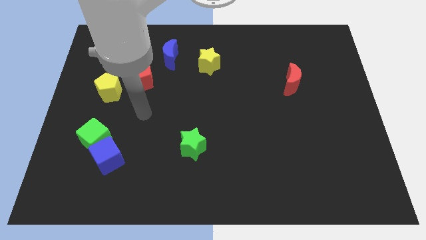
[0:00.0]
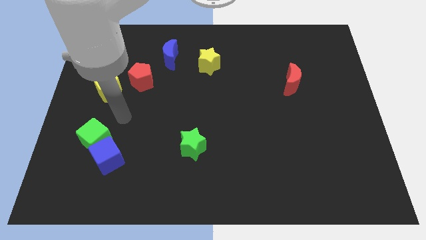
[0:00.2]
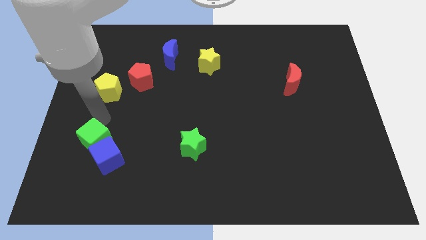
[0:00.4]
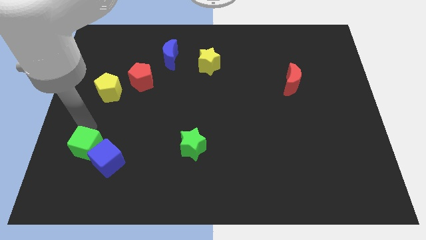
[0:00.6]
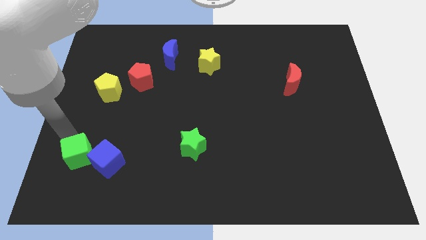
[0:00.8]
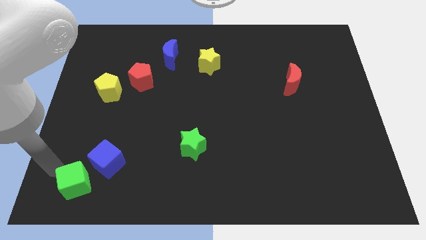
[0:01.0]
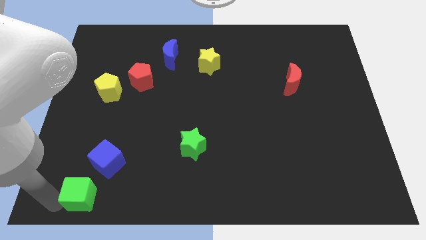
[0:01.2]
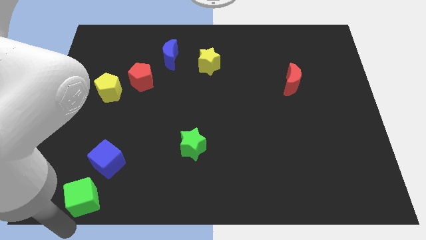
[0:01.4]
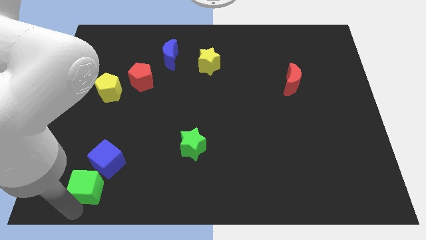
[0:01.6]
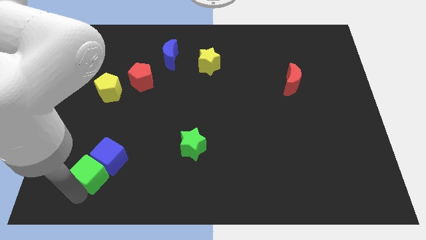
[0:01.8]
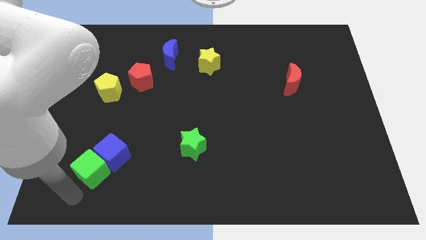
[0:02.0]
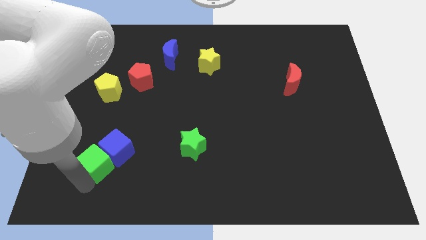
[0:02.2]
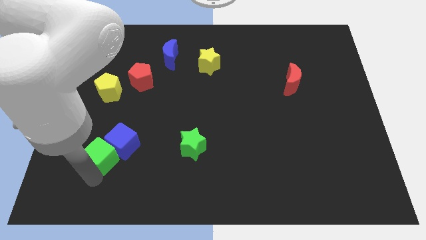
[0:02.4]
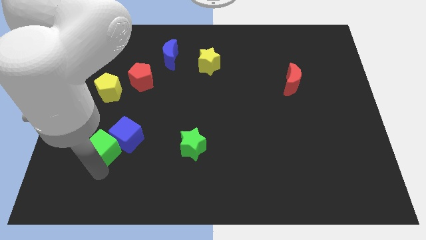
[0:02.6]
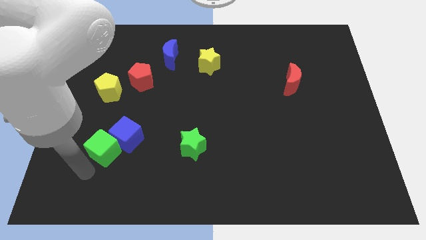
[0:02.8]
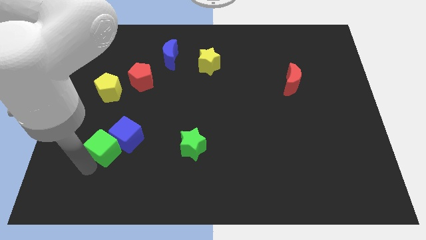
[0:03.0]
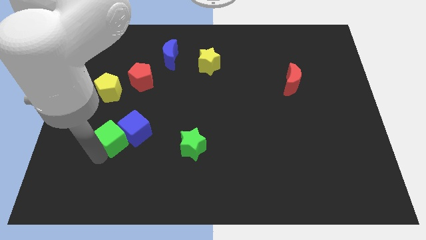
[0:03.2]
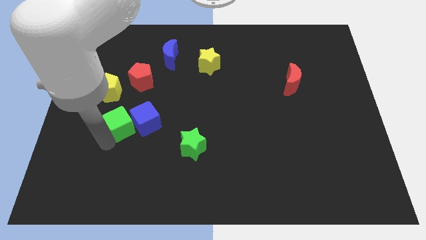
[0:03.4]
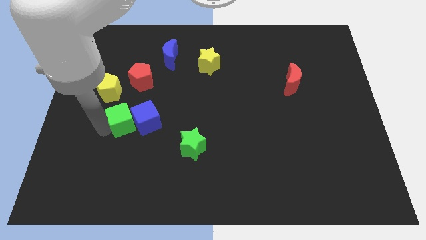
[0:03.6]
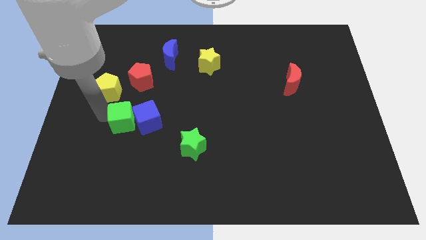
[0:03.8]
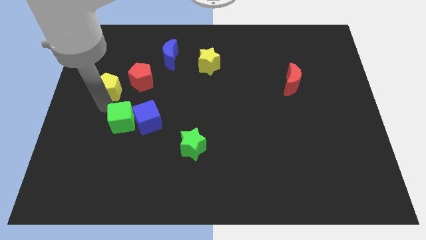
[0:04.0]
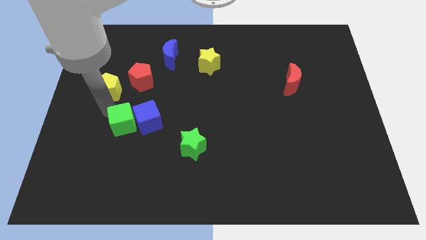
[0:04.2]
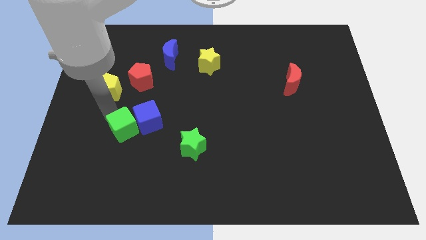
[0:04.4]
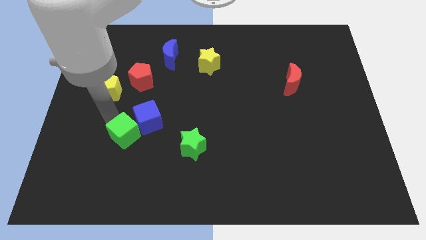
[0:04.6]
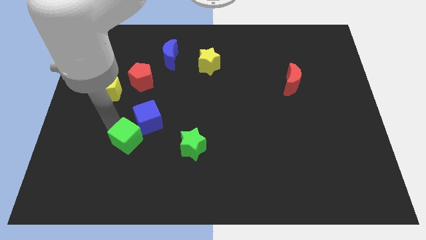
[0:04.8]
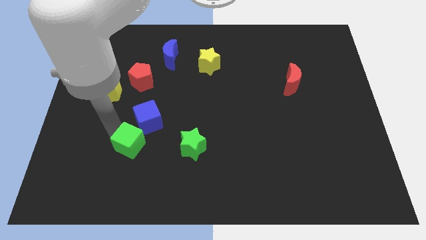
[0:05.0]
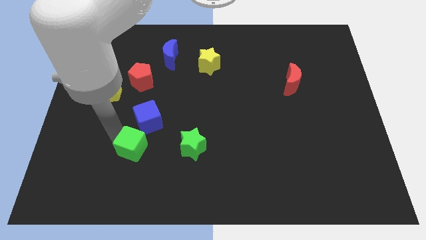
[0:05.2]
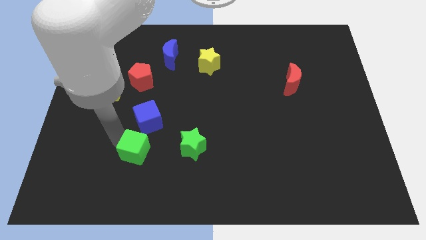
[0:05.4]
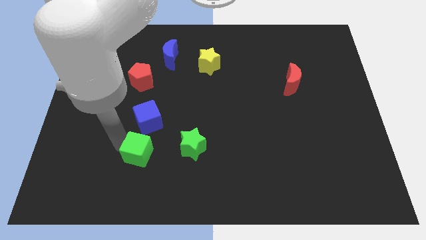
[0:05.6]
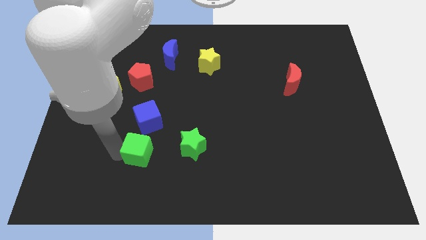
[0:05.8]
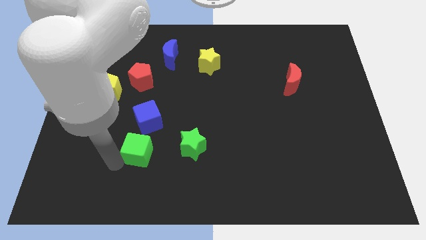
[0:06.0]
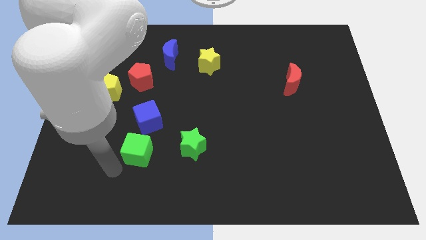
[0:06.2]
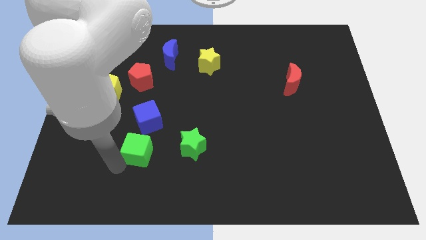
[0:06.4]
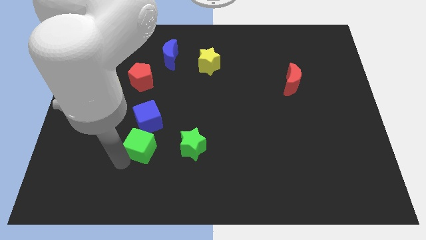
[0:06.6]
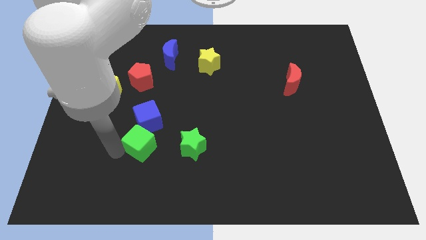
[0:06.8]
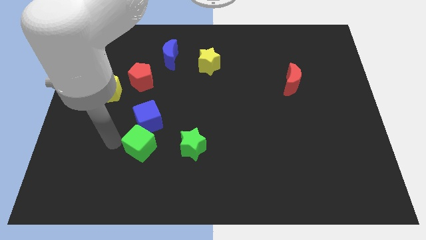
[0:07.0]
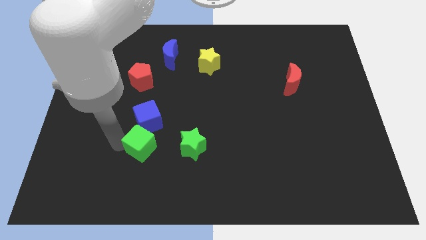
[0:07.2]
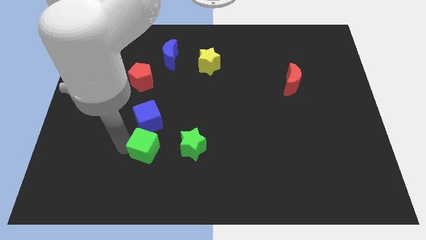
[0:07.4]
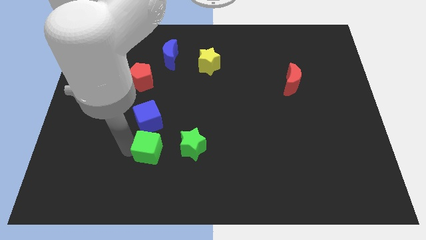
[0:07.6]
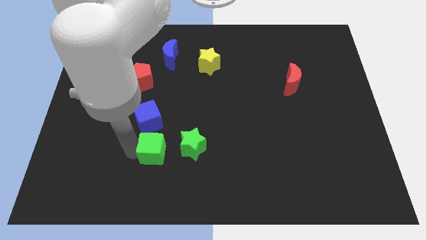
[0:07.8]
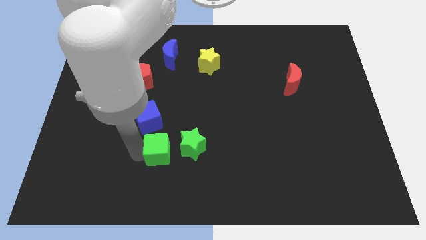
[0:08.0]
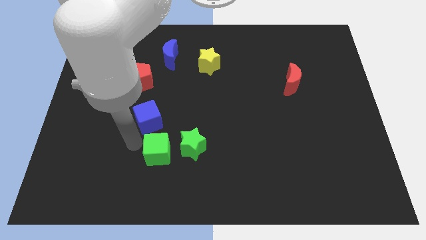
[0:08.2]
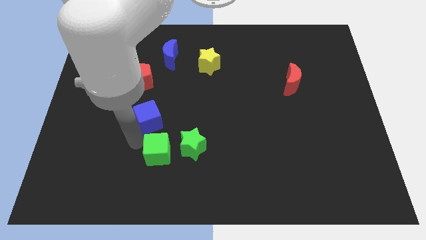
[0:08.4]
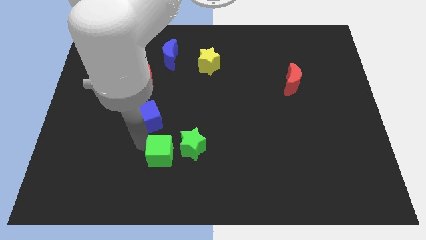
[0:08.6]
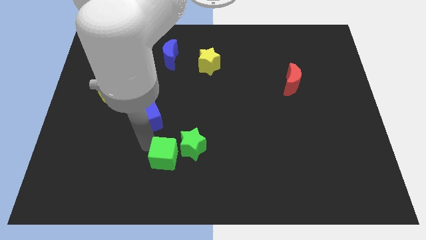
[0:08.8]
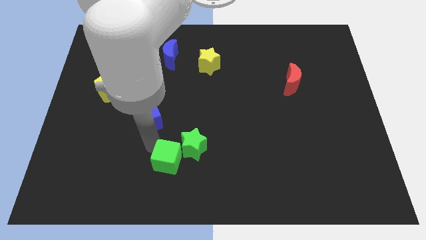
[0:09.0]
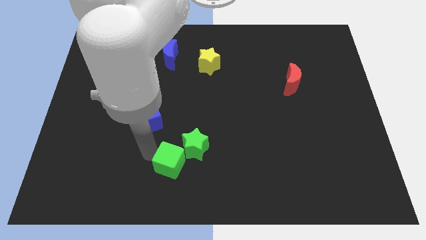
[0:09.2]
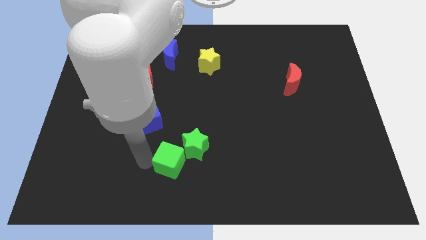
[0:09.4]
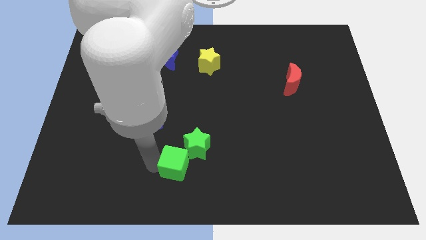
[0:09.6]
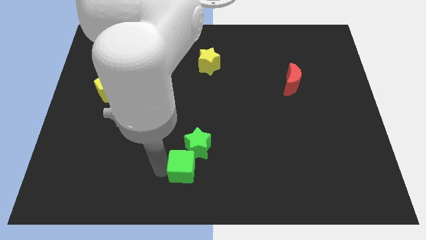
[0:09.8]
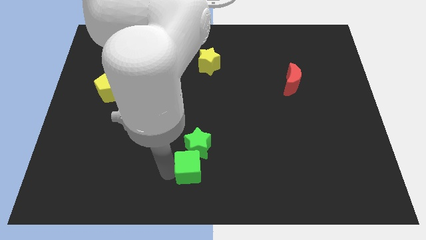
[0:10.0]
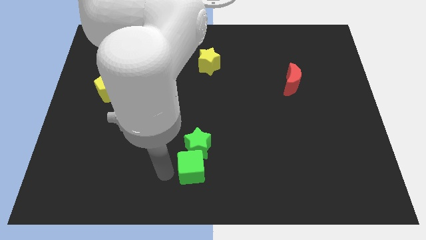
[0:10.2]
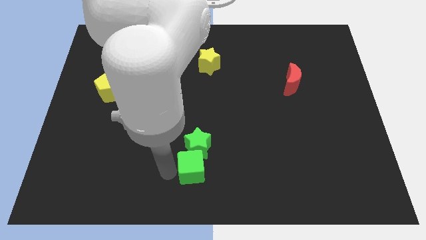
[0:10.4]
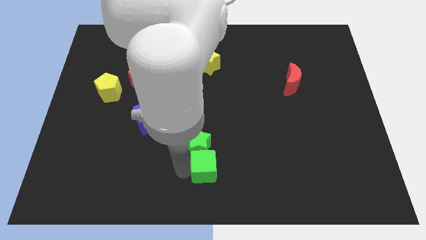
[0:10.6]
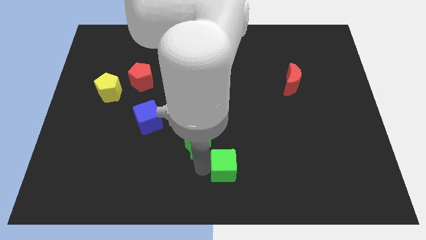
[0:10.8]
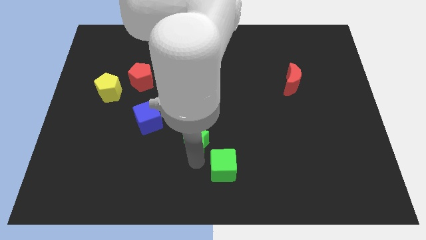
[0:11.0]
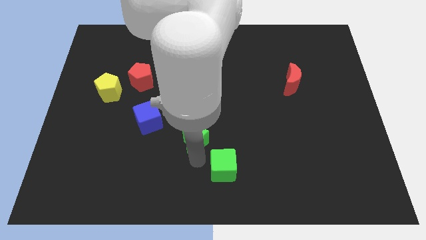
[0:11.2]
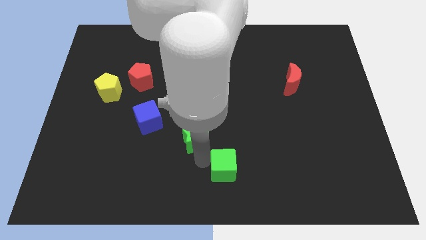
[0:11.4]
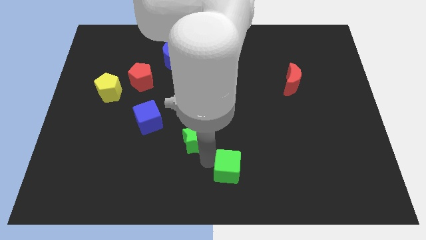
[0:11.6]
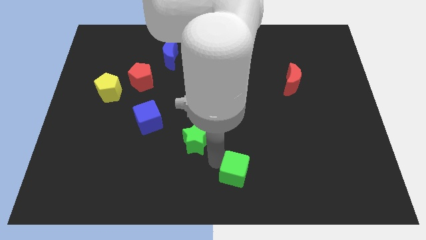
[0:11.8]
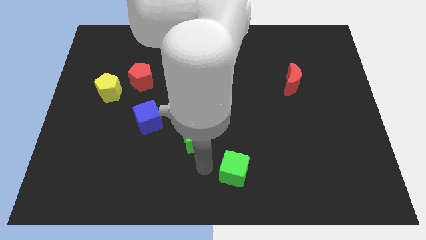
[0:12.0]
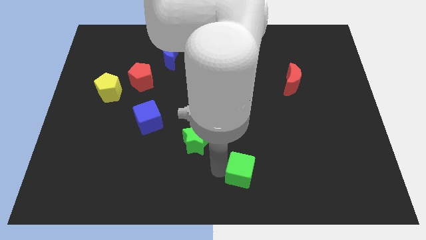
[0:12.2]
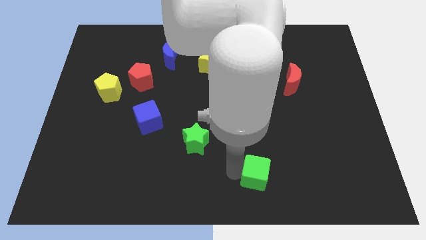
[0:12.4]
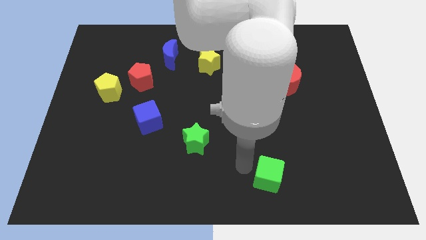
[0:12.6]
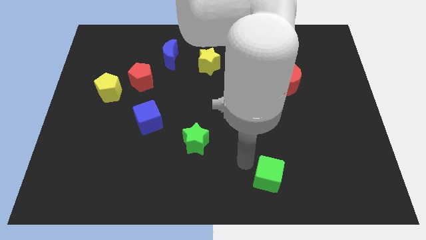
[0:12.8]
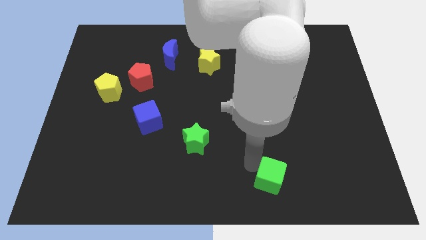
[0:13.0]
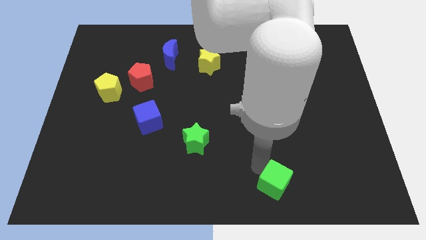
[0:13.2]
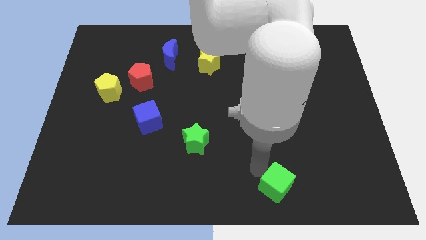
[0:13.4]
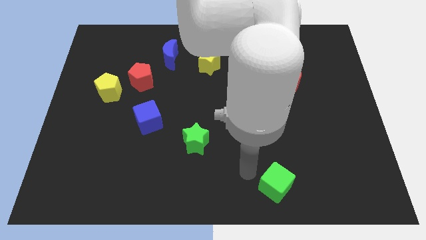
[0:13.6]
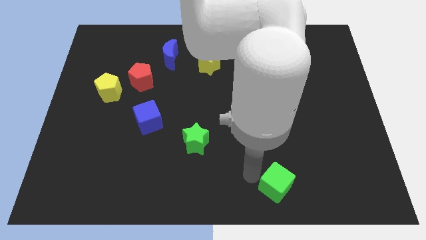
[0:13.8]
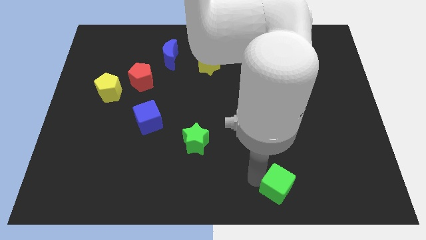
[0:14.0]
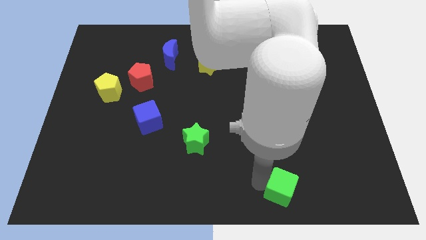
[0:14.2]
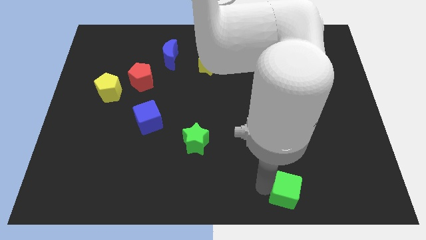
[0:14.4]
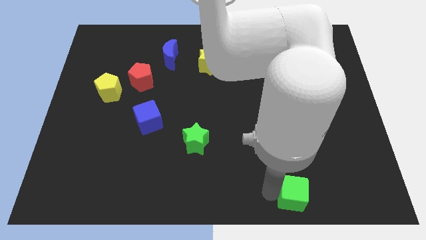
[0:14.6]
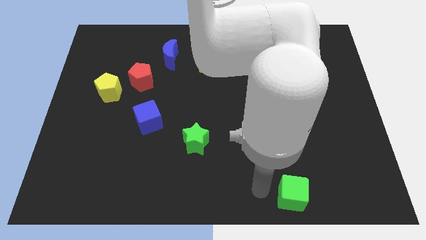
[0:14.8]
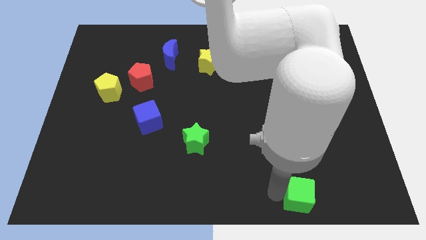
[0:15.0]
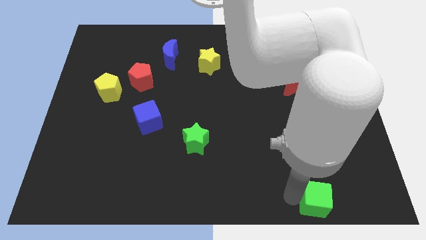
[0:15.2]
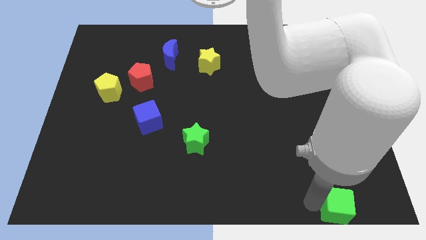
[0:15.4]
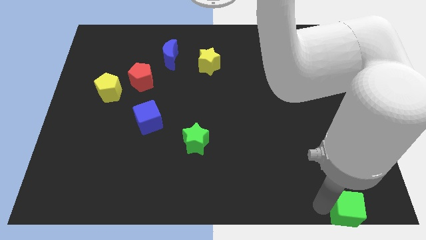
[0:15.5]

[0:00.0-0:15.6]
push the green cube to the bottom right
